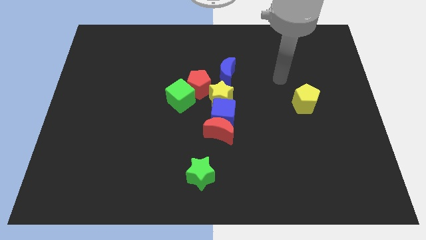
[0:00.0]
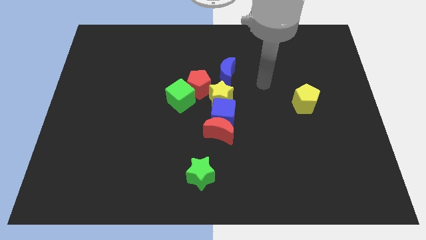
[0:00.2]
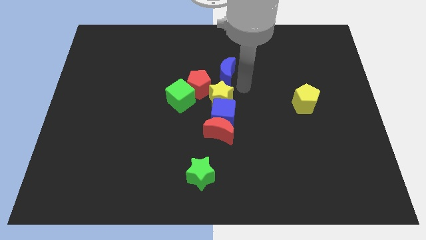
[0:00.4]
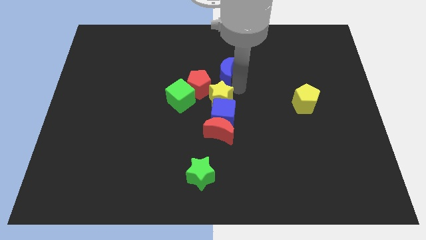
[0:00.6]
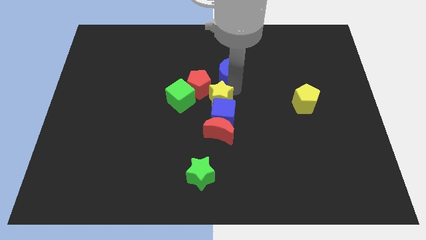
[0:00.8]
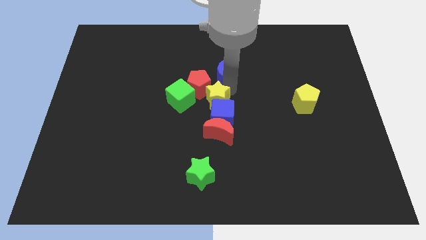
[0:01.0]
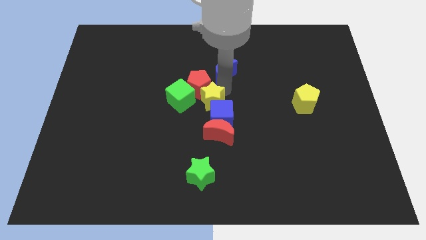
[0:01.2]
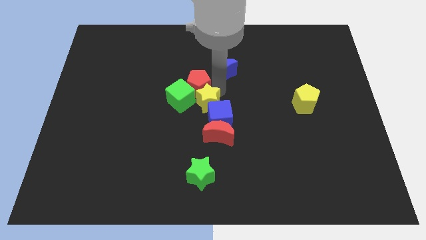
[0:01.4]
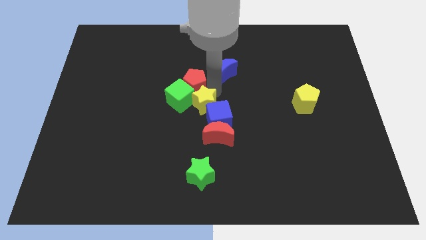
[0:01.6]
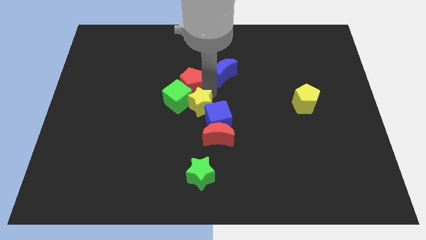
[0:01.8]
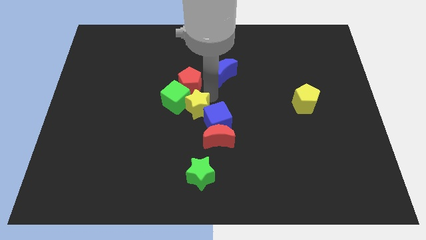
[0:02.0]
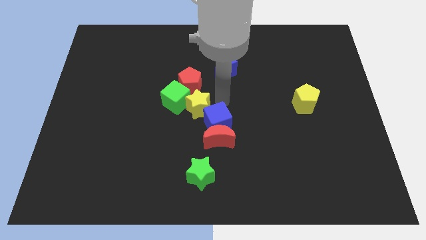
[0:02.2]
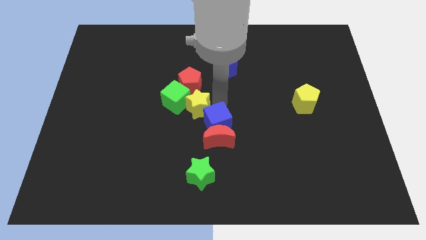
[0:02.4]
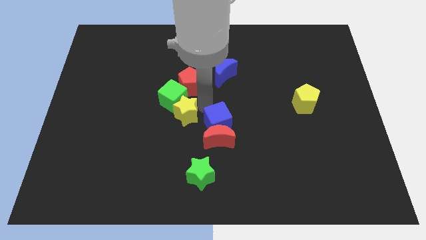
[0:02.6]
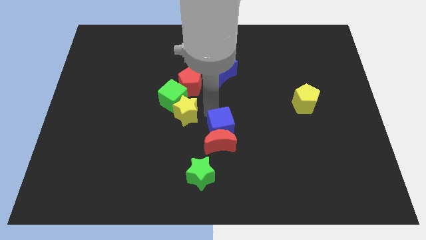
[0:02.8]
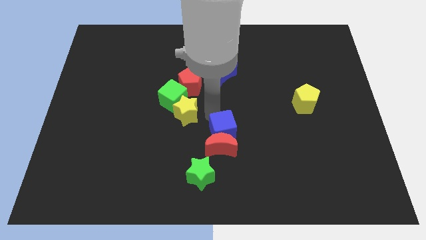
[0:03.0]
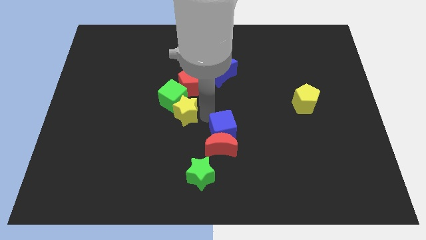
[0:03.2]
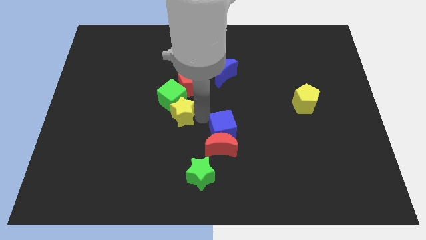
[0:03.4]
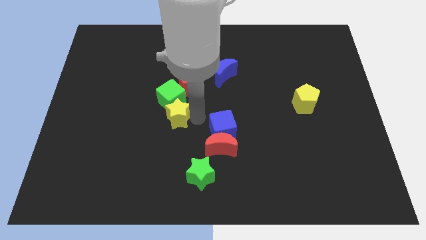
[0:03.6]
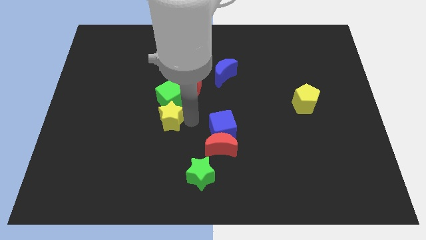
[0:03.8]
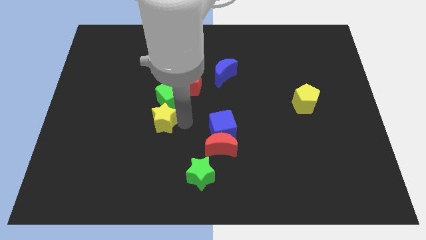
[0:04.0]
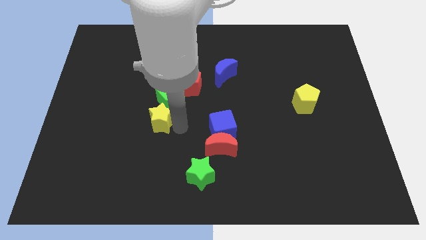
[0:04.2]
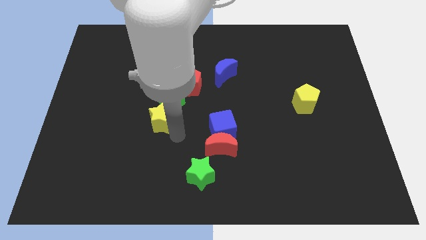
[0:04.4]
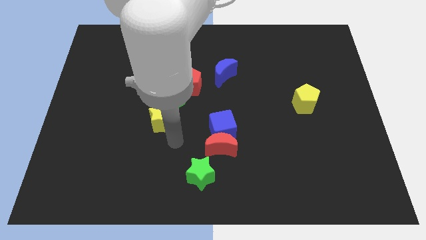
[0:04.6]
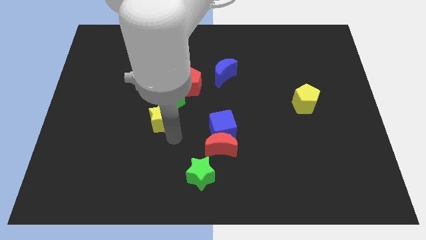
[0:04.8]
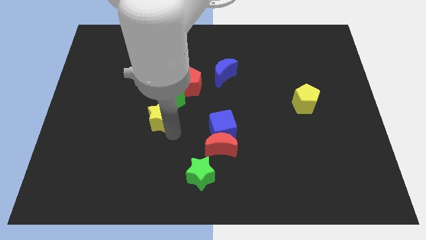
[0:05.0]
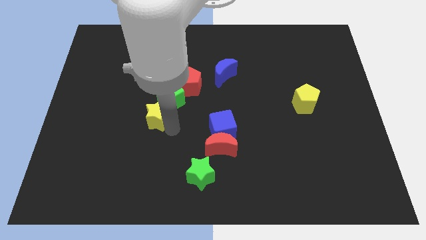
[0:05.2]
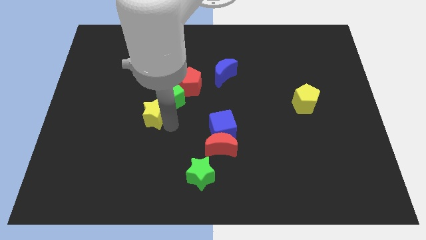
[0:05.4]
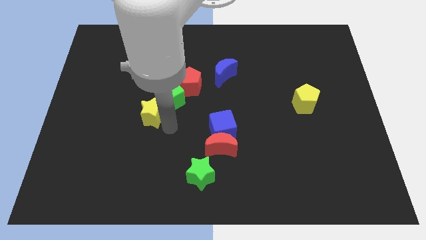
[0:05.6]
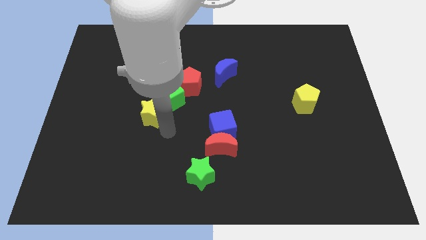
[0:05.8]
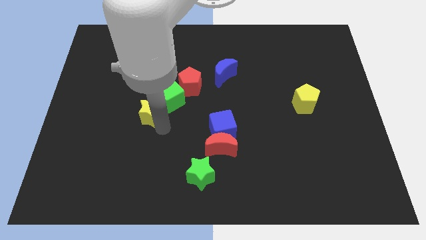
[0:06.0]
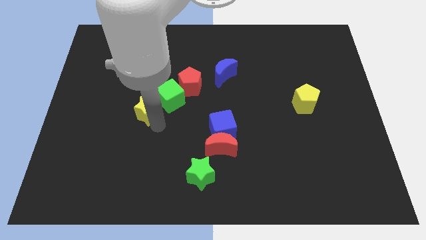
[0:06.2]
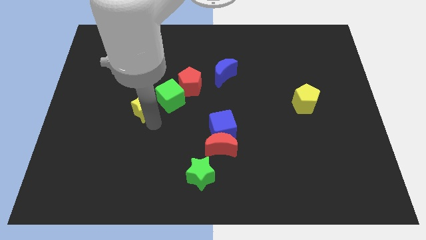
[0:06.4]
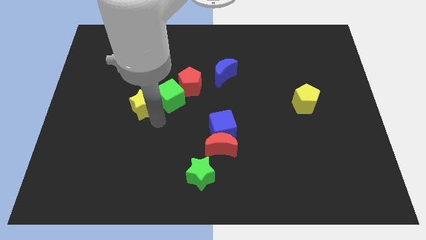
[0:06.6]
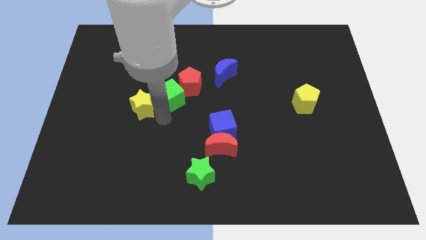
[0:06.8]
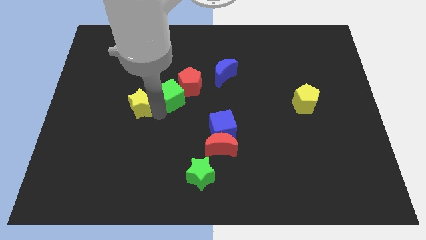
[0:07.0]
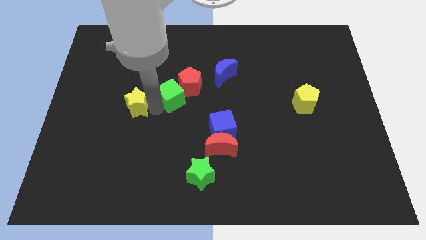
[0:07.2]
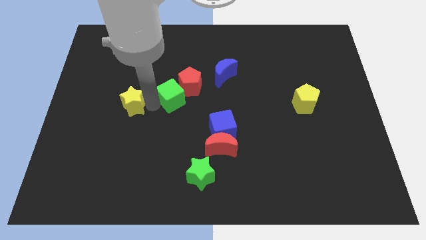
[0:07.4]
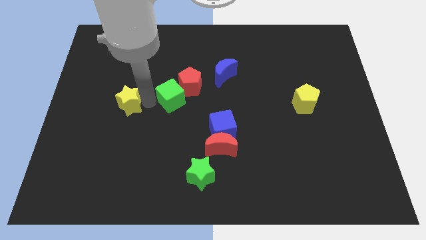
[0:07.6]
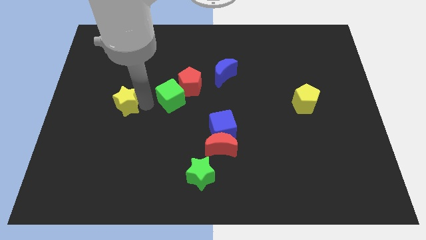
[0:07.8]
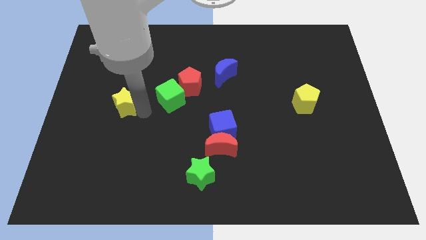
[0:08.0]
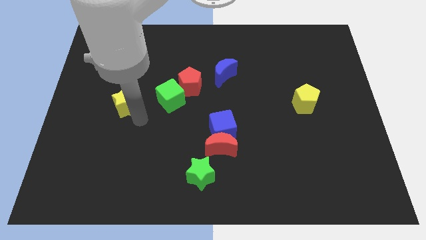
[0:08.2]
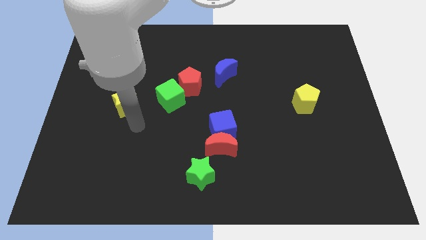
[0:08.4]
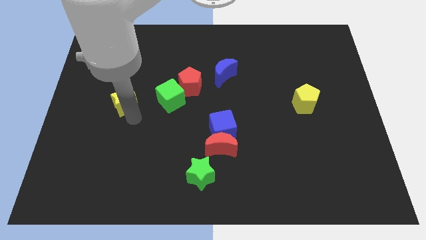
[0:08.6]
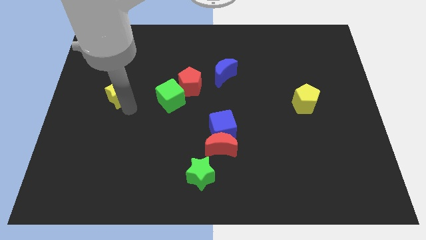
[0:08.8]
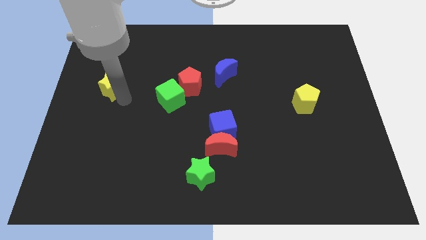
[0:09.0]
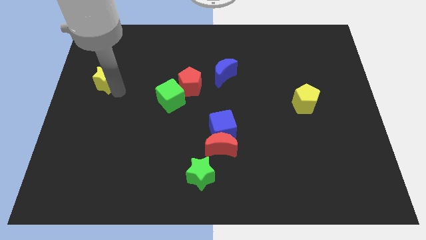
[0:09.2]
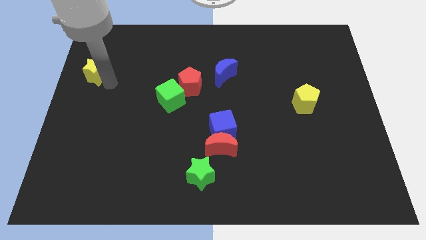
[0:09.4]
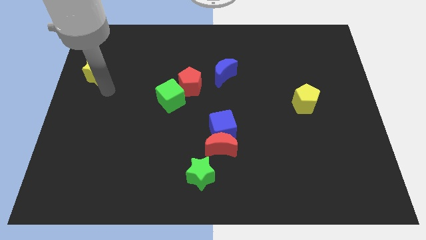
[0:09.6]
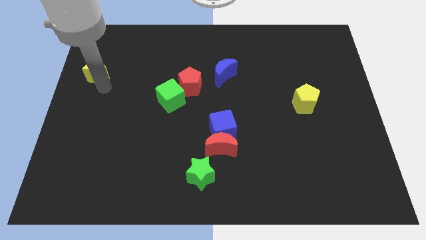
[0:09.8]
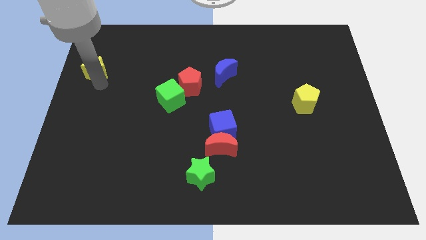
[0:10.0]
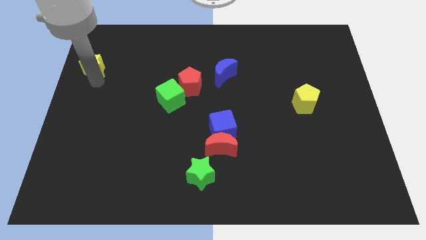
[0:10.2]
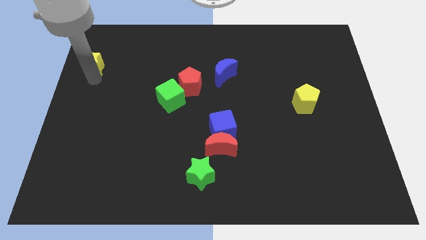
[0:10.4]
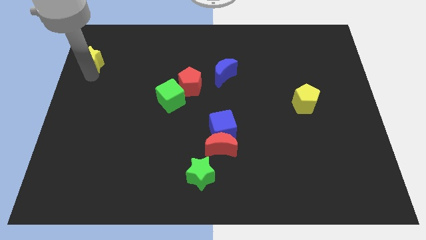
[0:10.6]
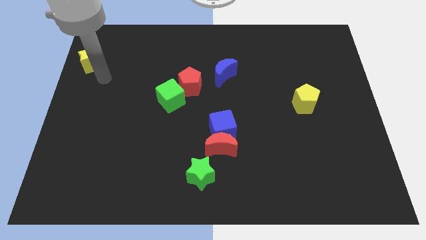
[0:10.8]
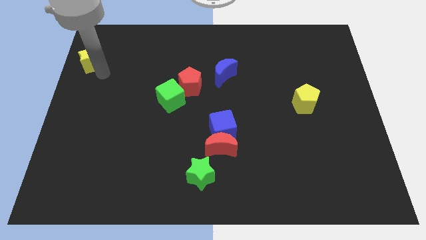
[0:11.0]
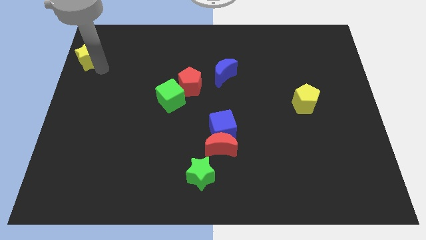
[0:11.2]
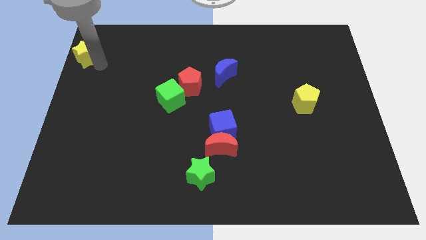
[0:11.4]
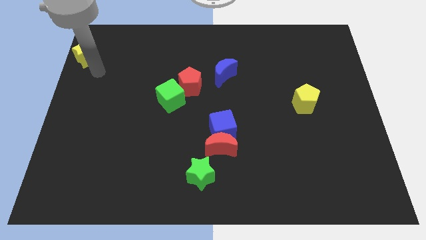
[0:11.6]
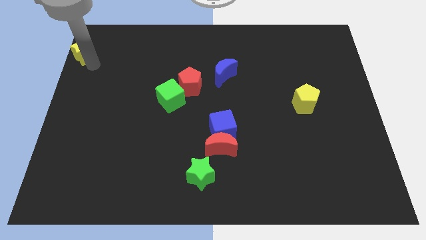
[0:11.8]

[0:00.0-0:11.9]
move the yellow star to the top left corner
